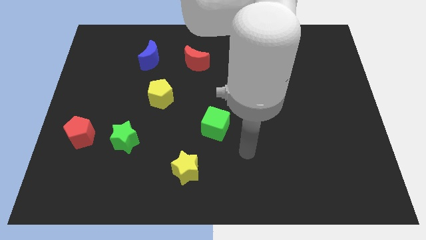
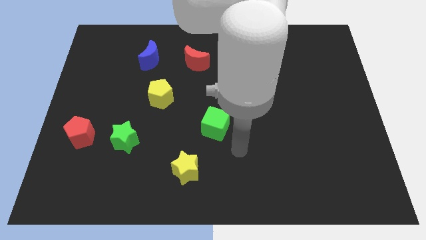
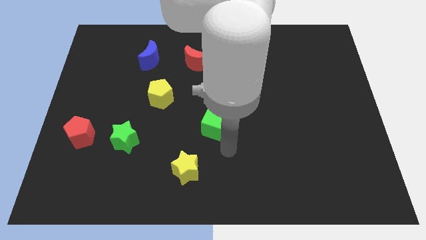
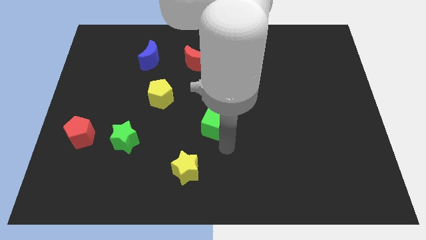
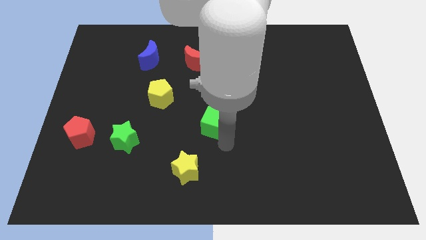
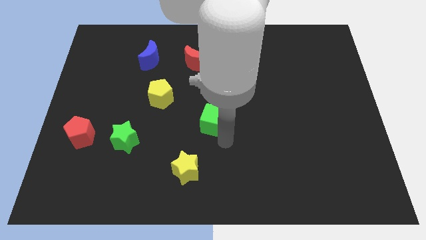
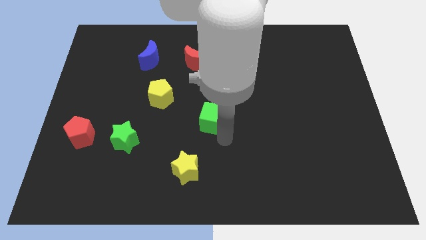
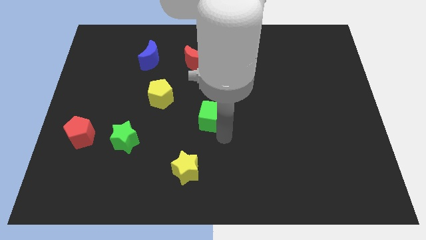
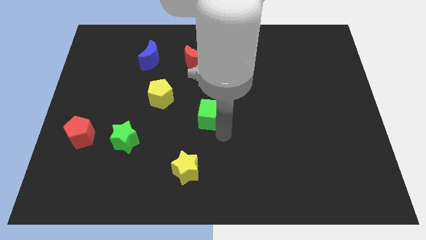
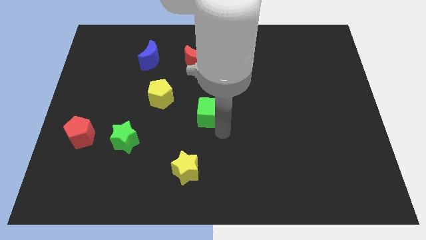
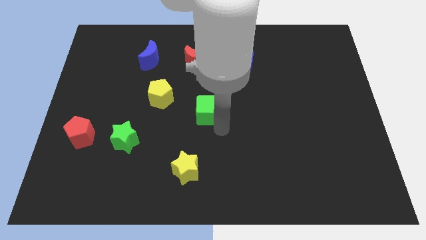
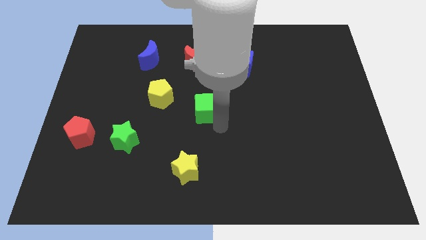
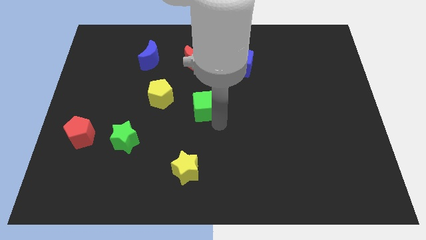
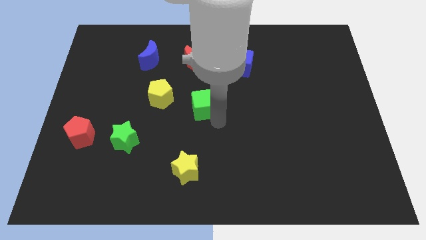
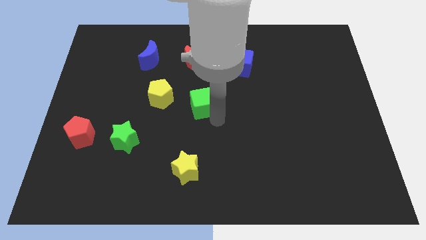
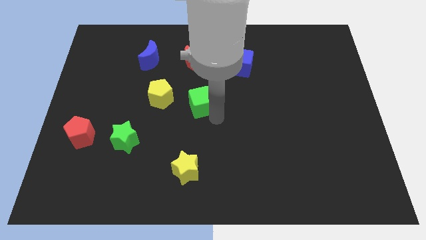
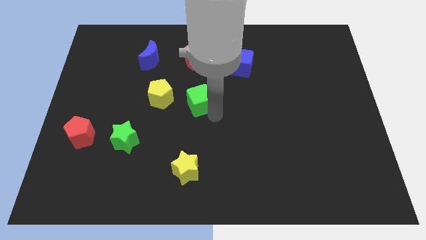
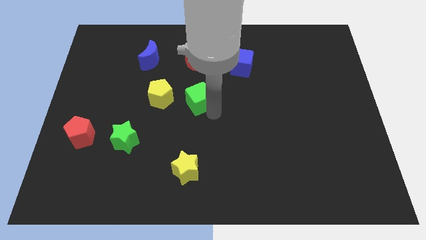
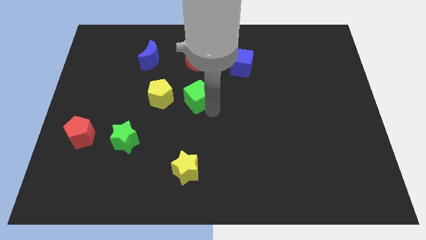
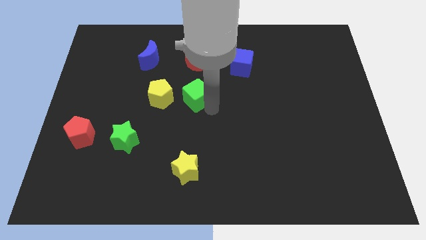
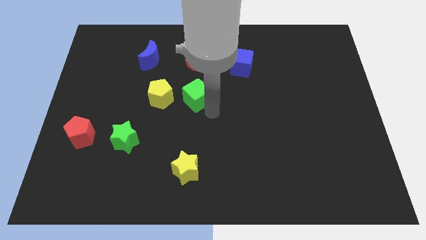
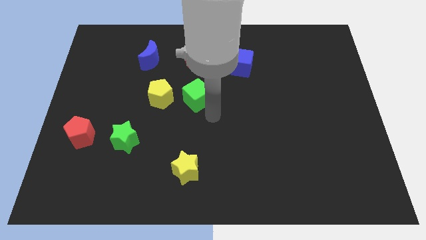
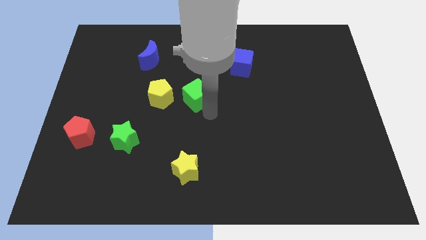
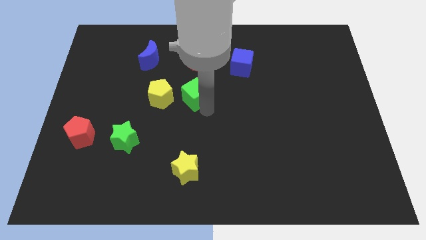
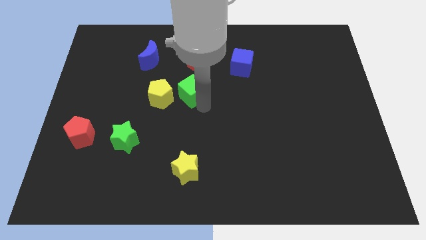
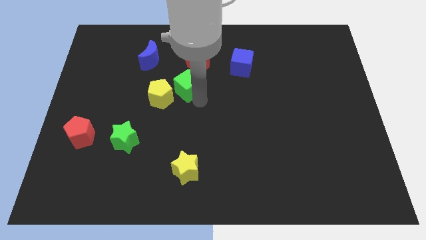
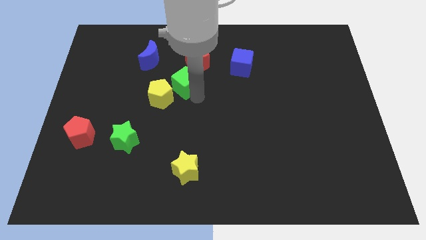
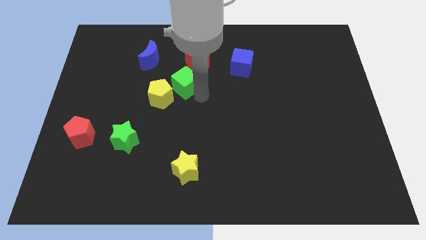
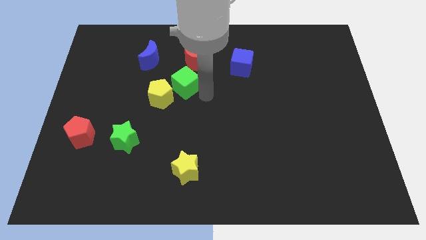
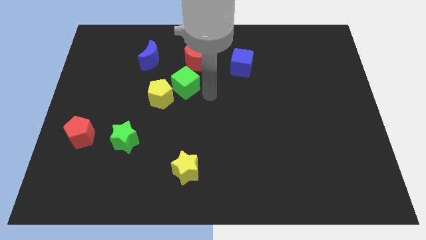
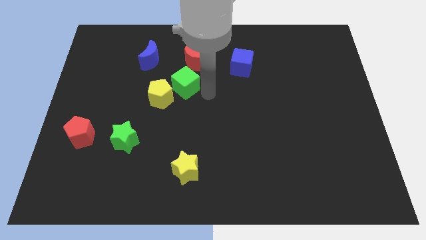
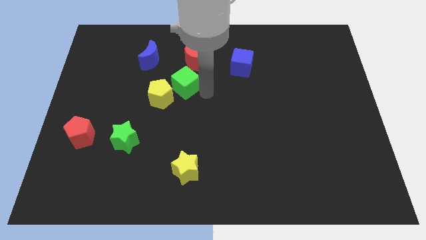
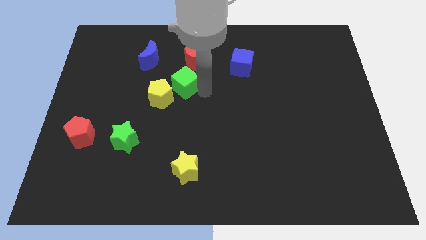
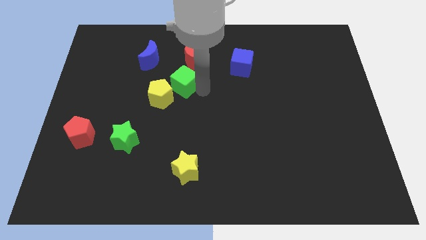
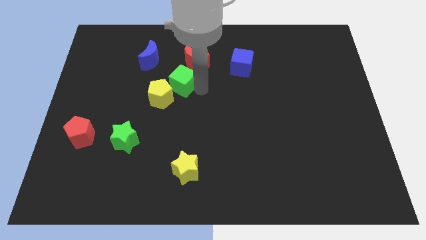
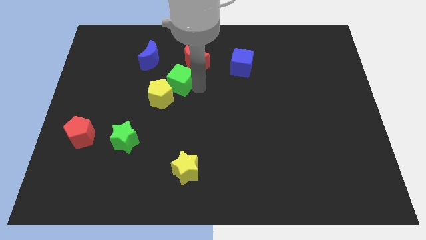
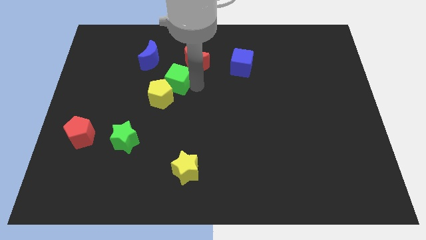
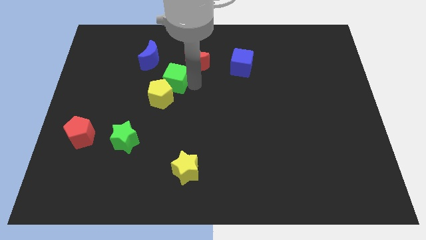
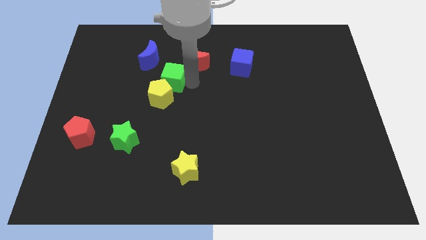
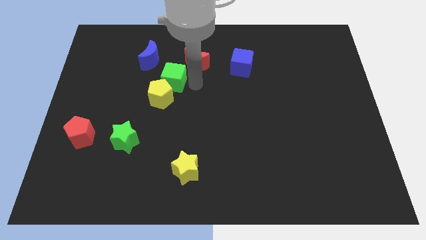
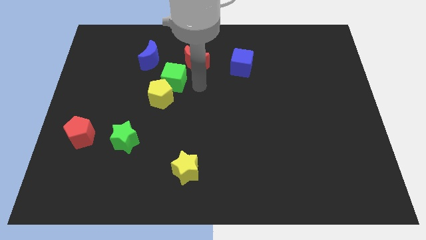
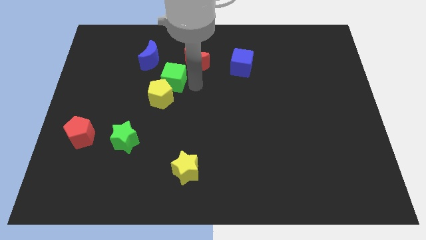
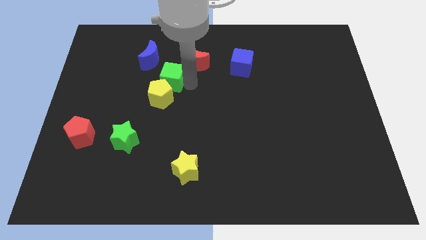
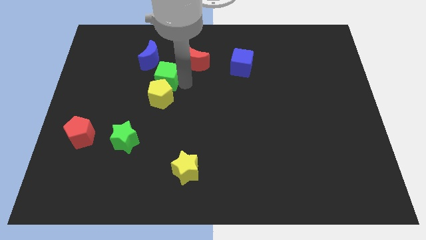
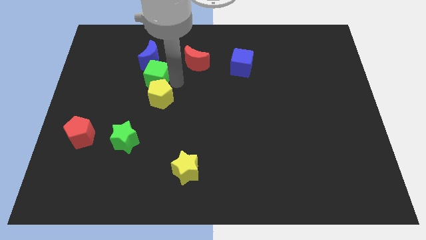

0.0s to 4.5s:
push the green cube up and then left

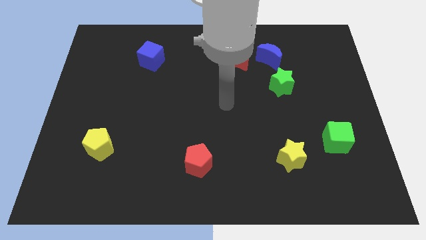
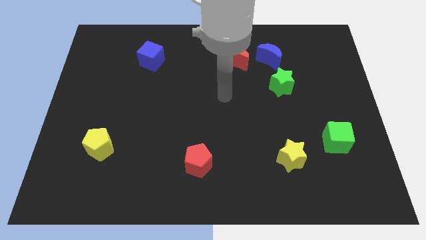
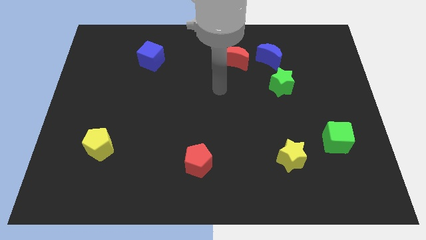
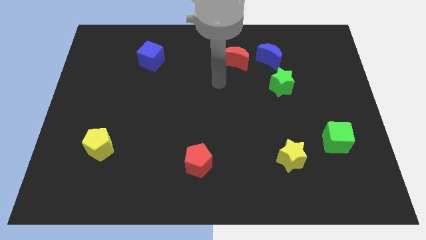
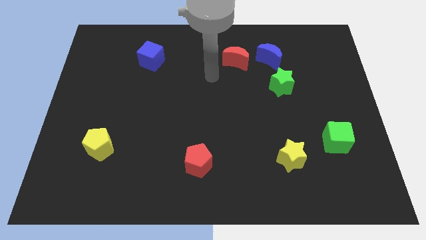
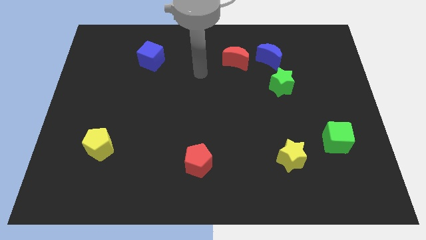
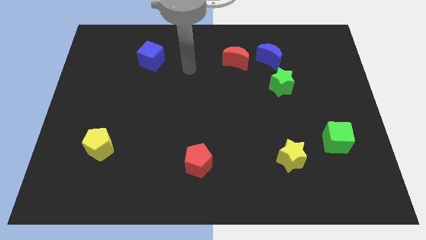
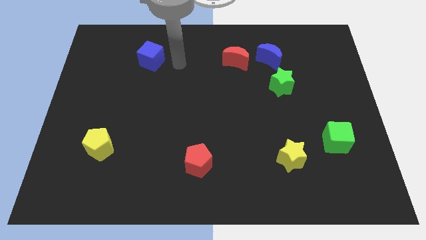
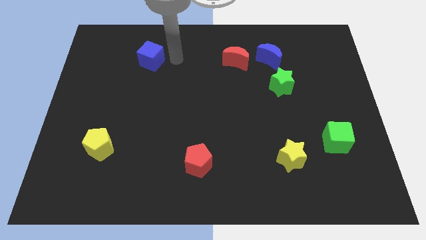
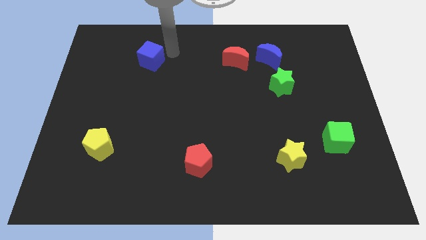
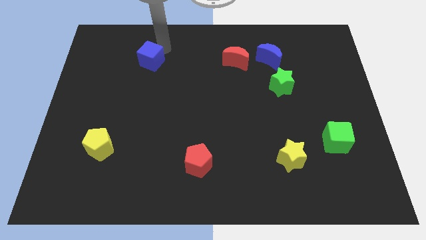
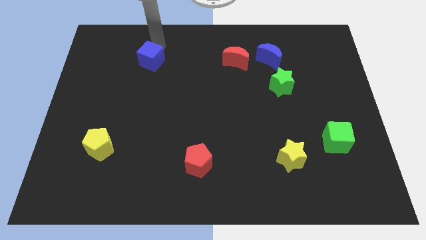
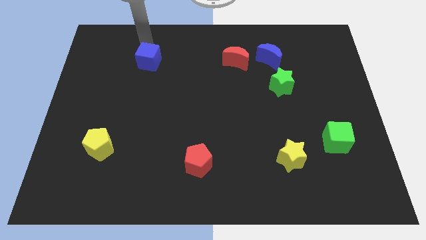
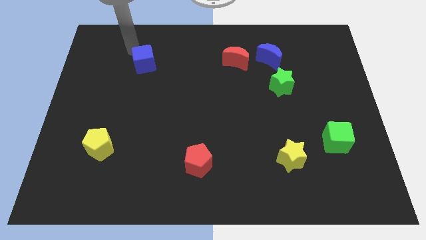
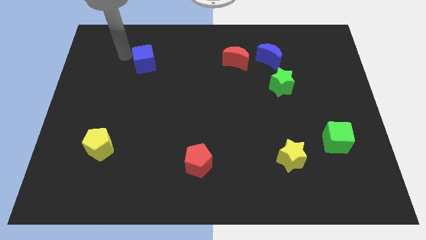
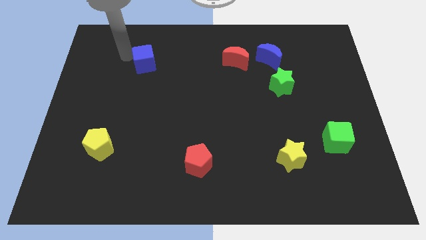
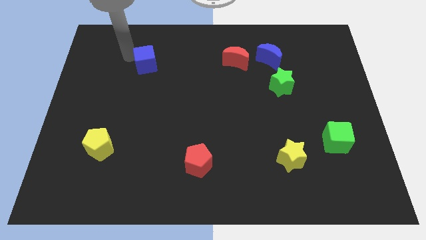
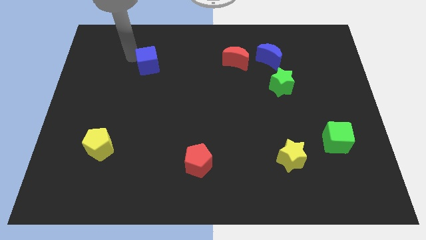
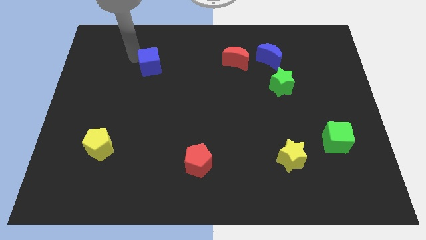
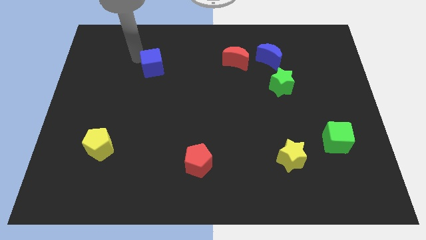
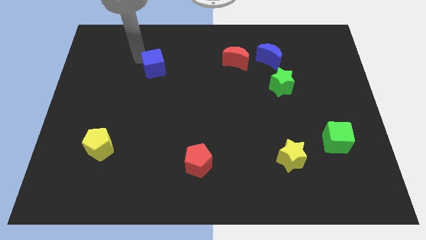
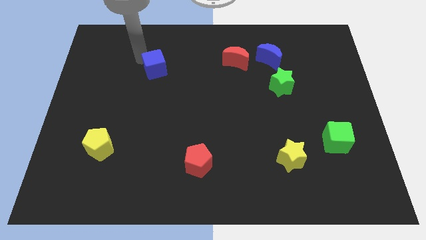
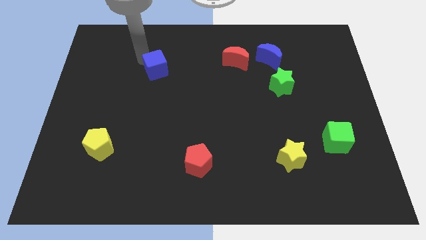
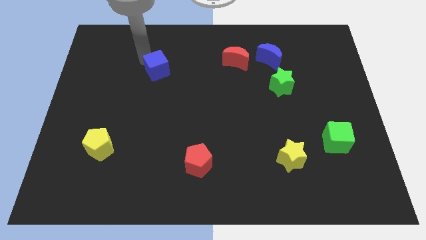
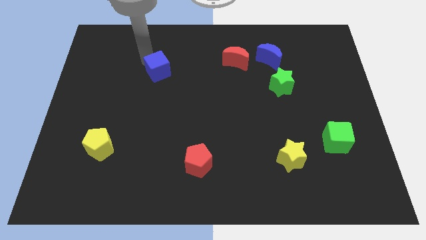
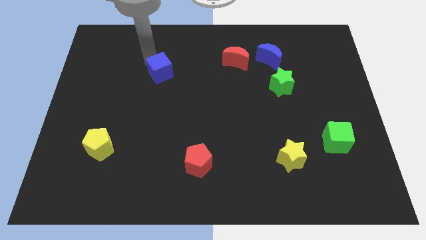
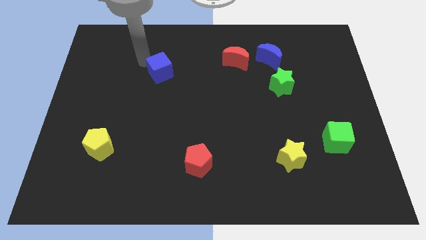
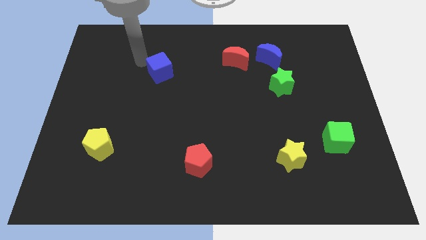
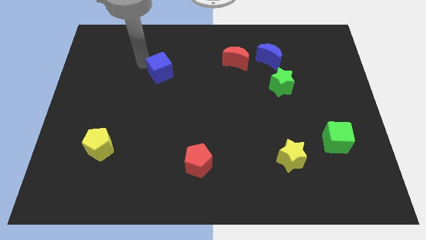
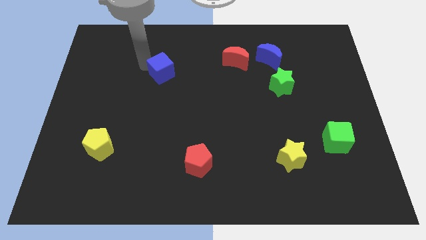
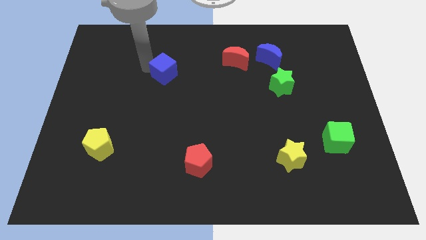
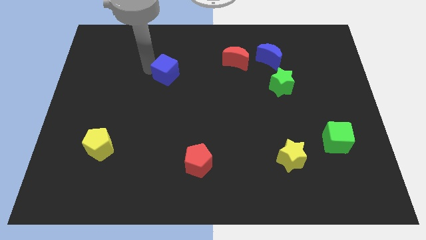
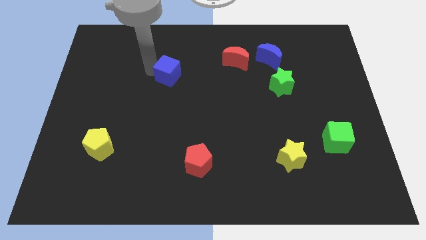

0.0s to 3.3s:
move the blue cube somewhat down and right diagonally

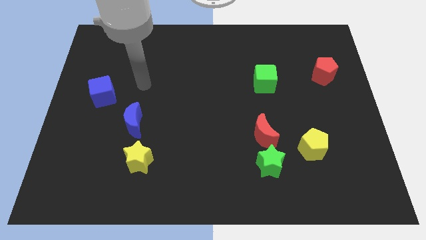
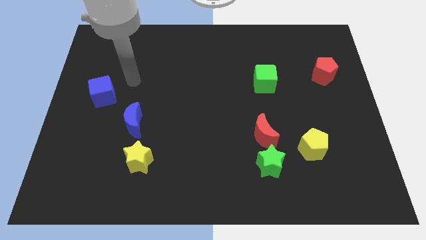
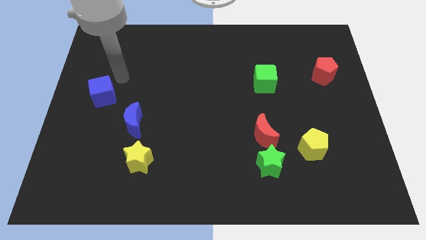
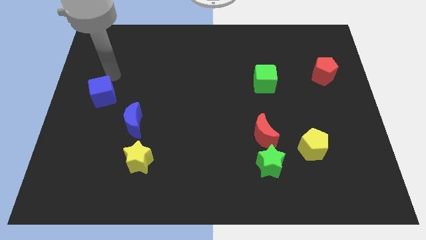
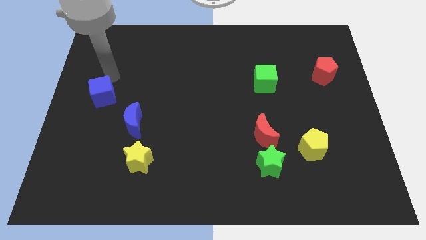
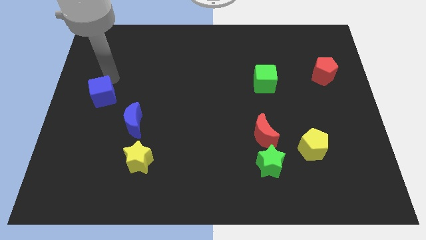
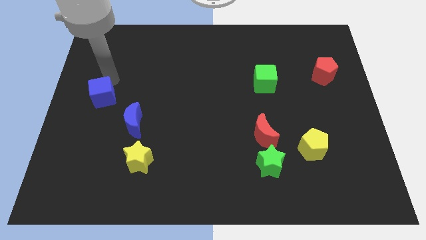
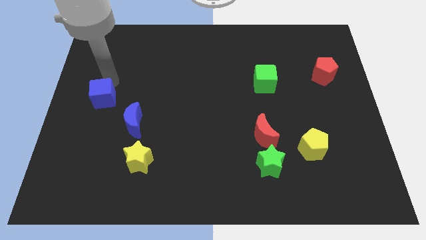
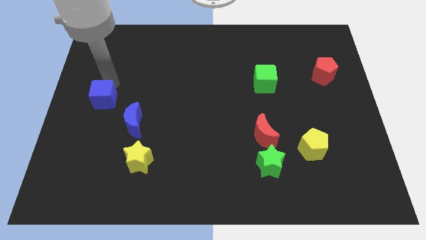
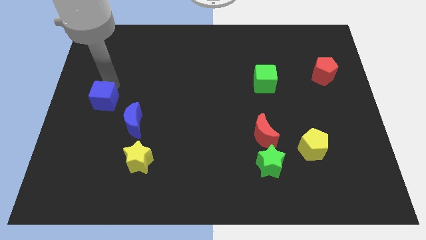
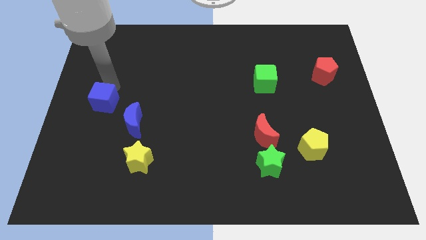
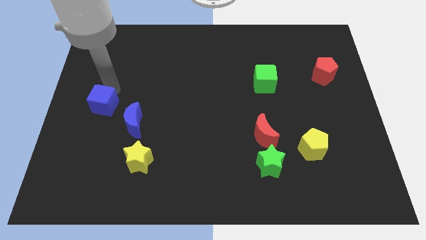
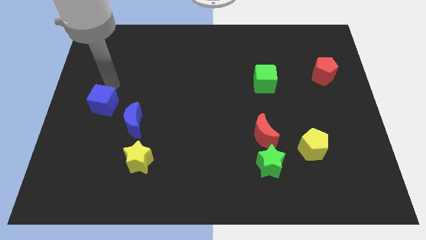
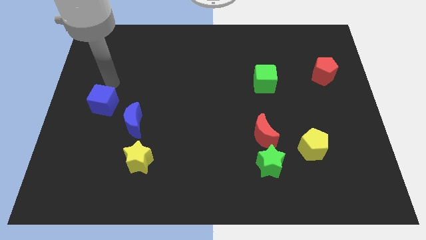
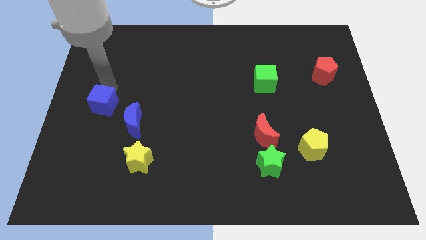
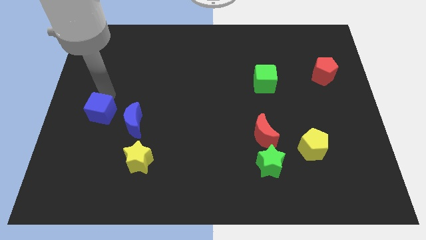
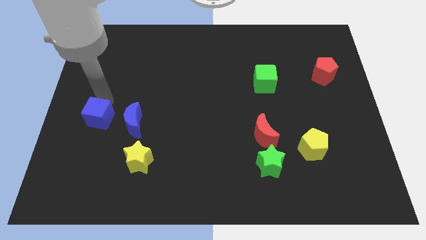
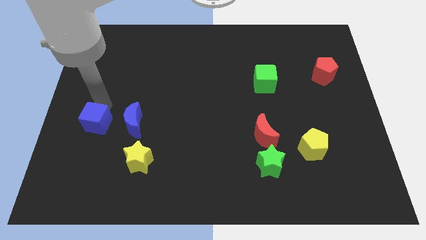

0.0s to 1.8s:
slide the blue cube a bit down
